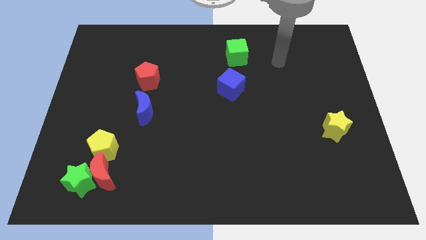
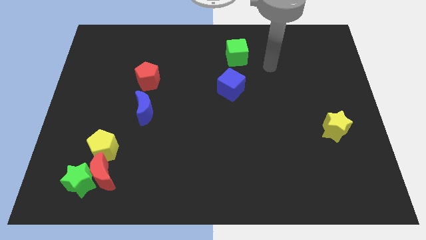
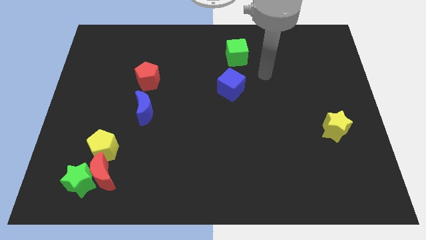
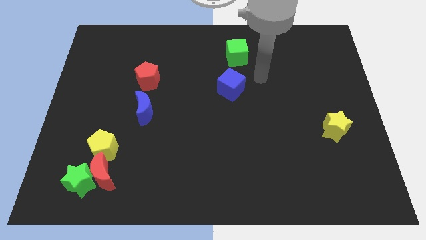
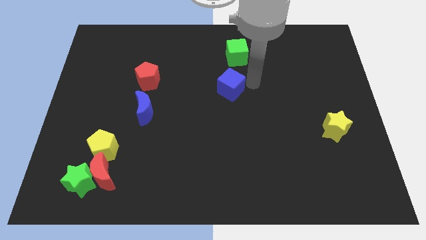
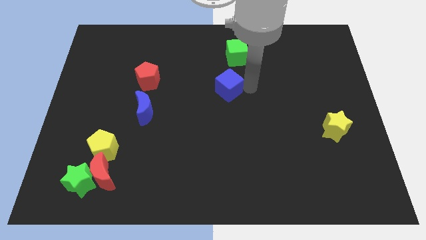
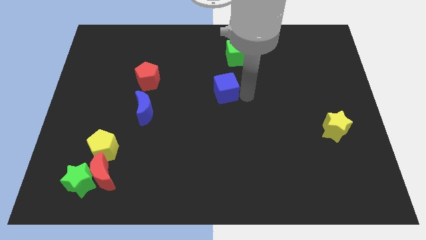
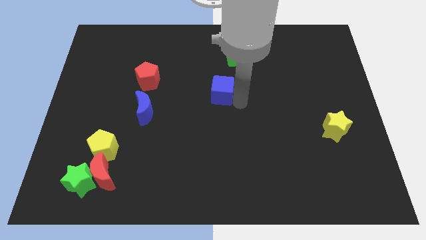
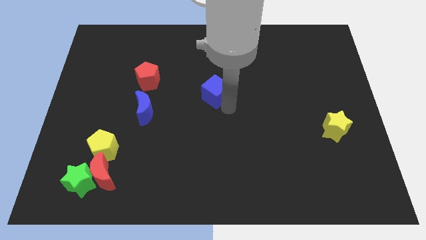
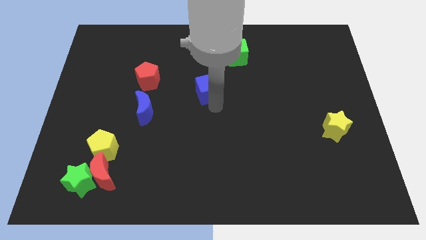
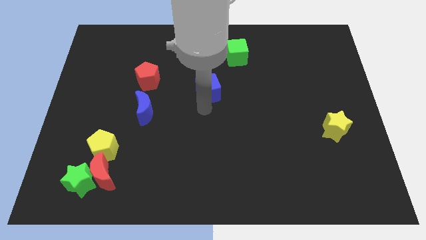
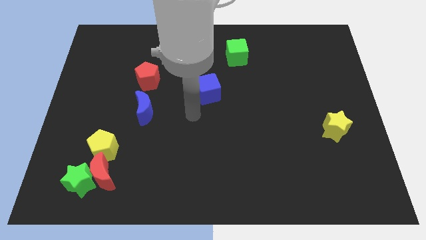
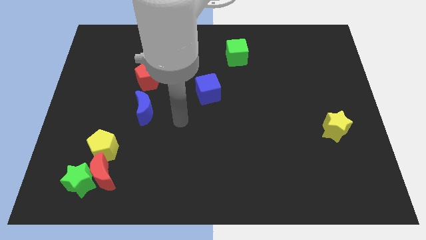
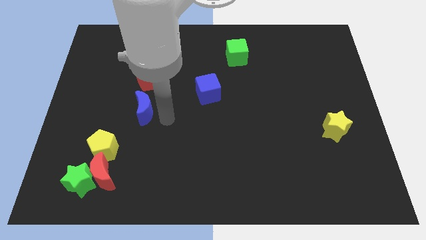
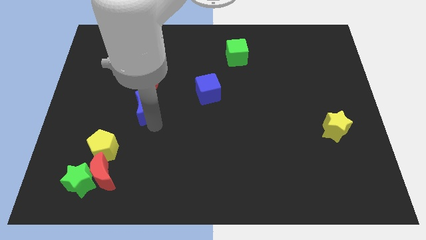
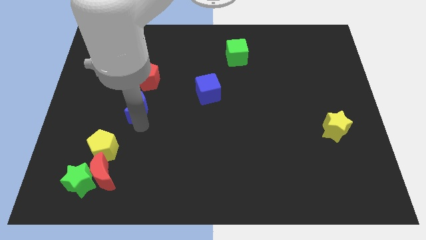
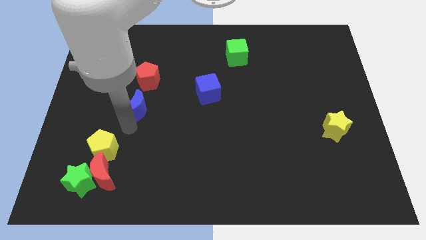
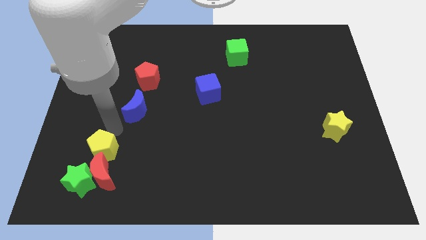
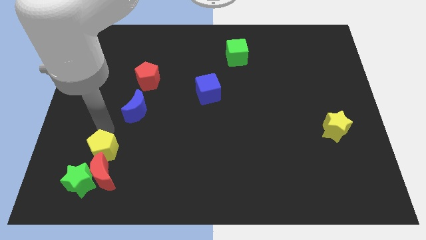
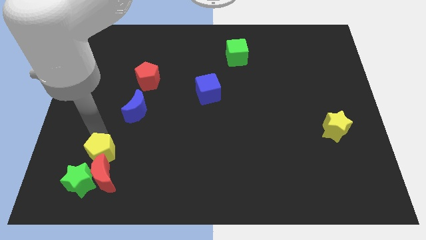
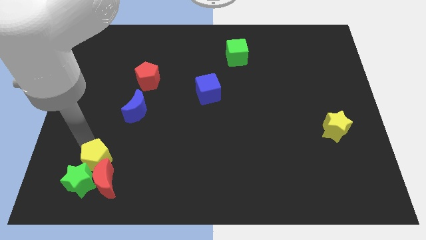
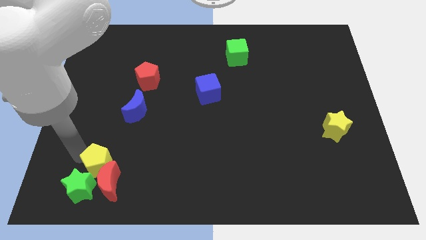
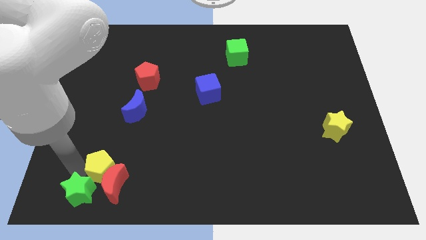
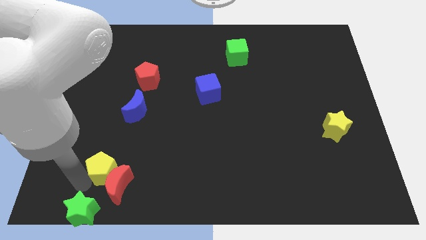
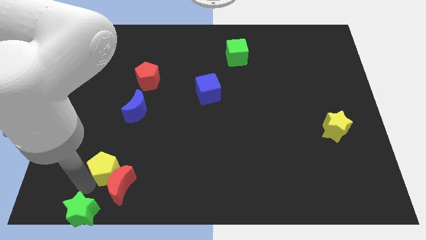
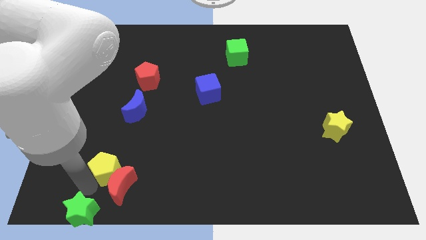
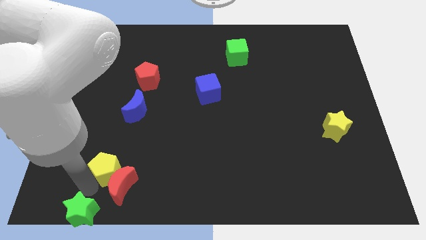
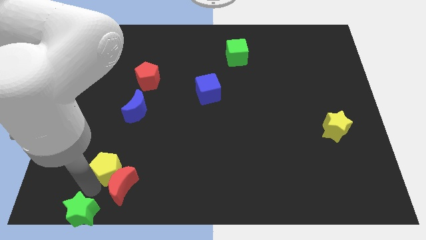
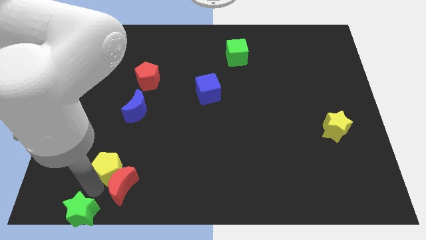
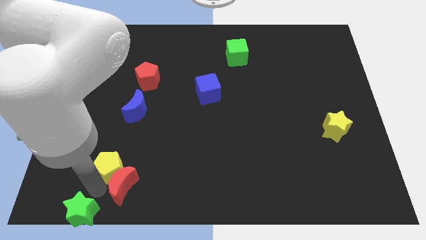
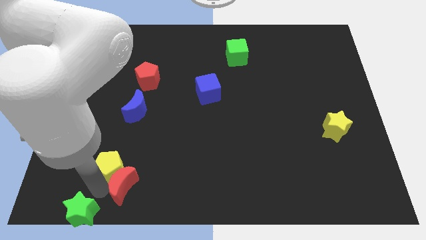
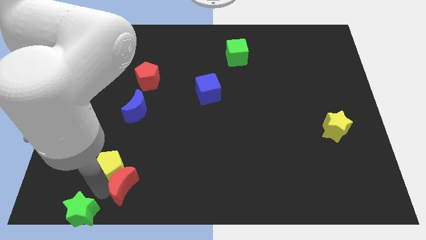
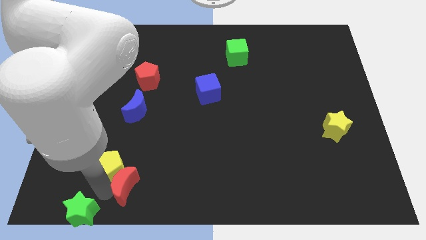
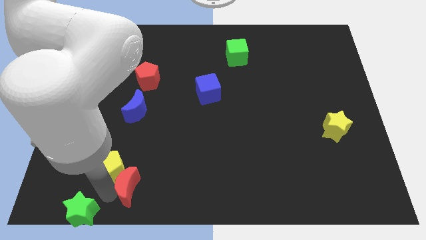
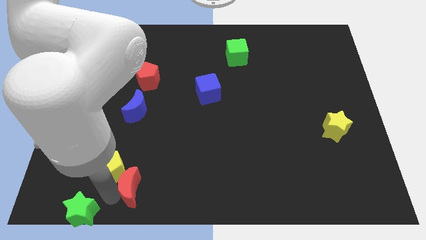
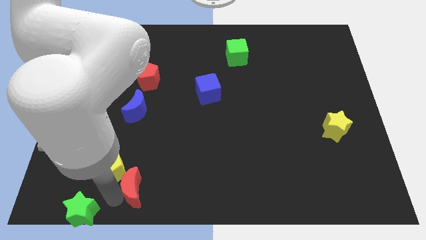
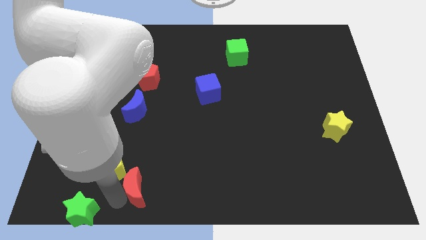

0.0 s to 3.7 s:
slightly push the red moon to the right

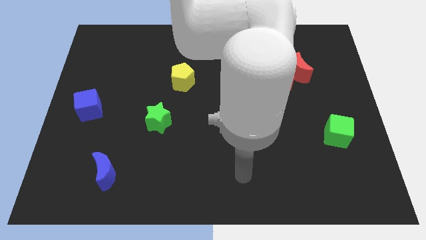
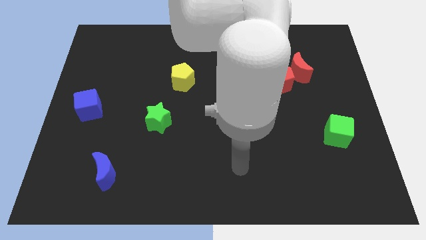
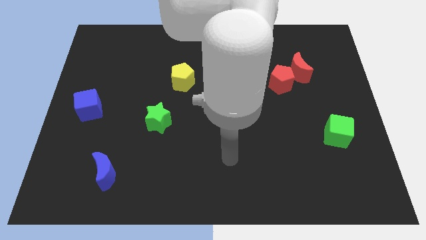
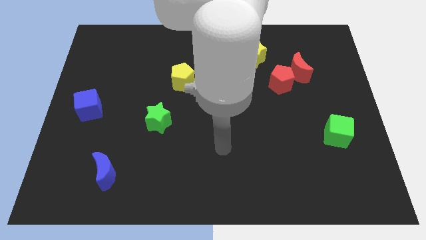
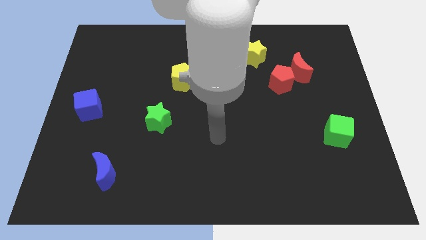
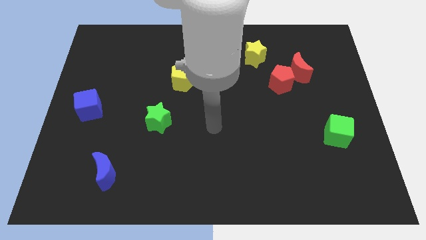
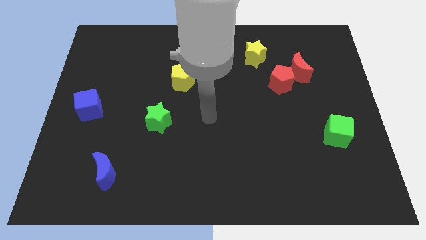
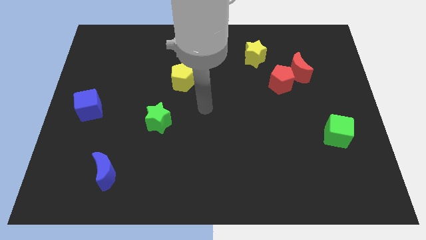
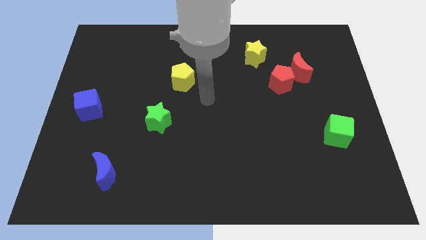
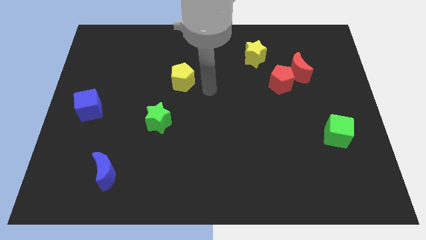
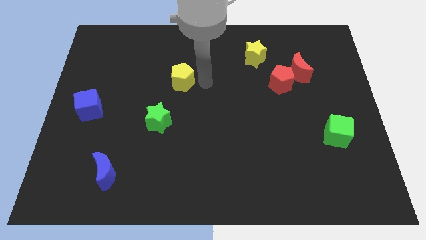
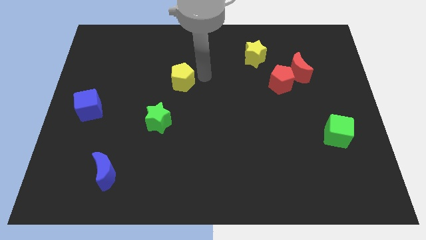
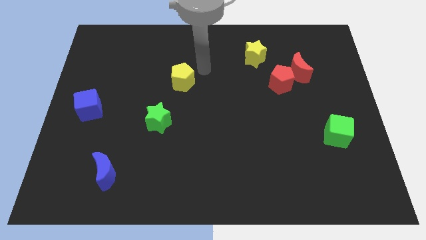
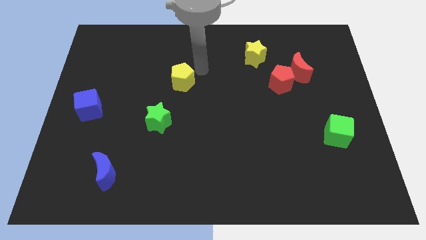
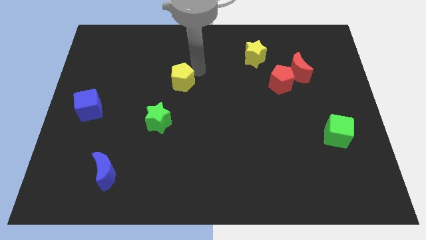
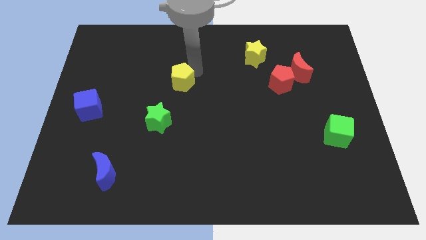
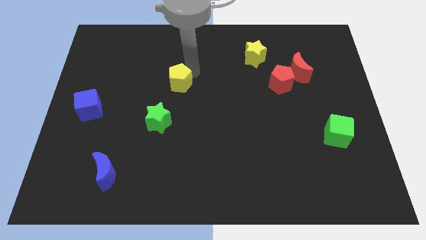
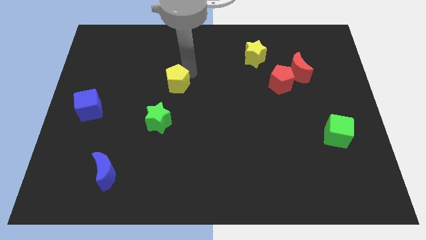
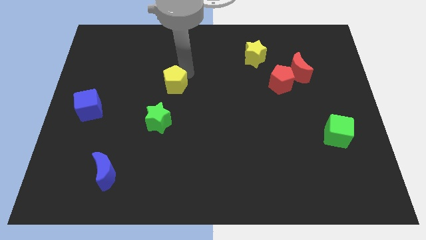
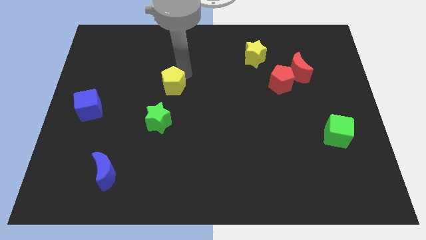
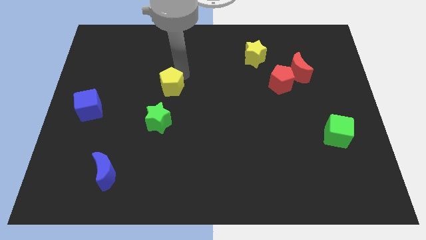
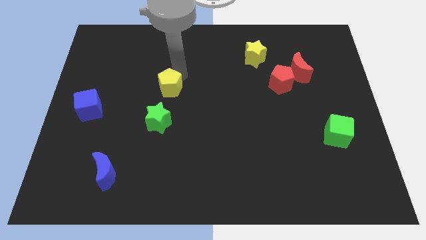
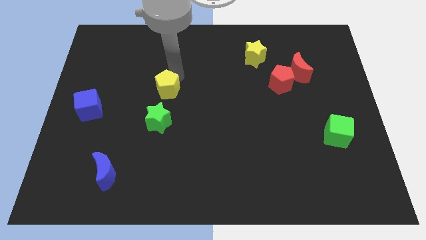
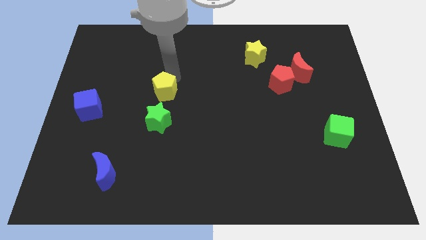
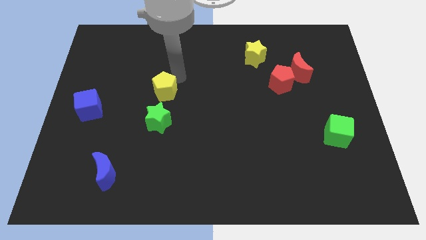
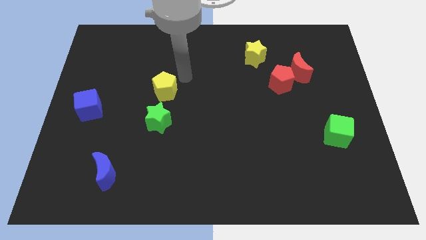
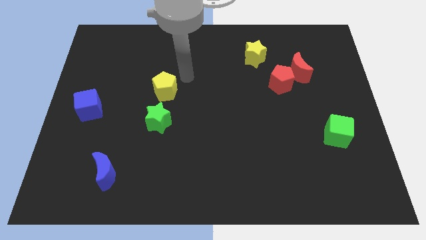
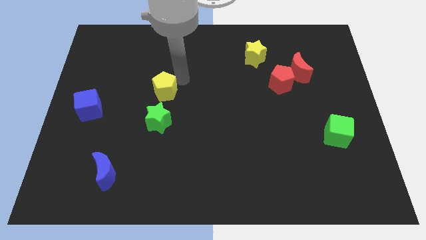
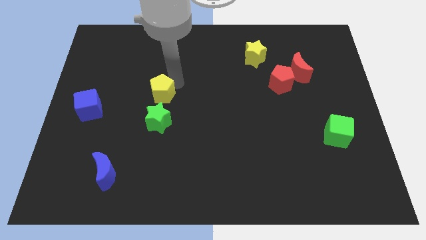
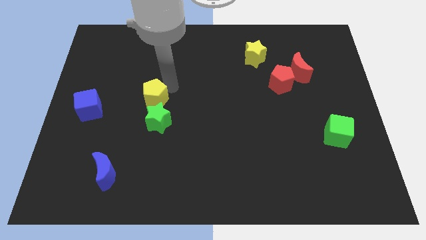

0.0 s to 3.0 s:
slightly push the yellow pentagon down and left

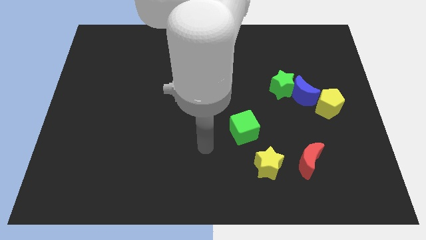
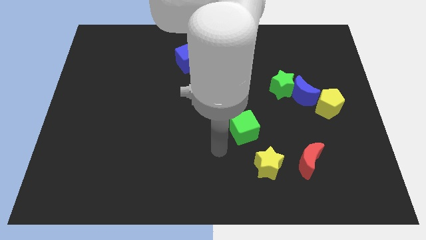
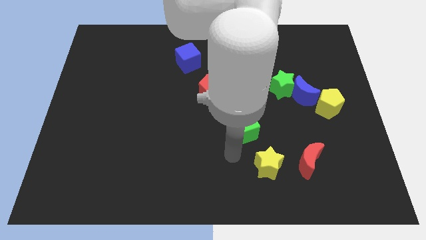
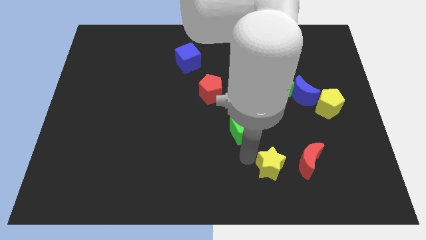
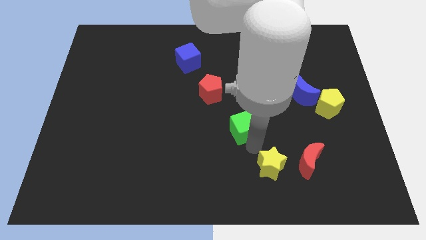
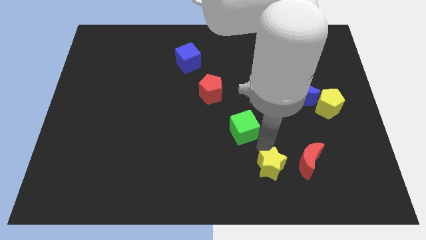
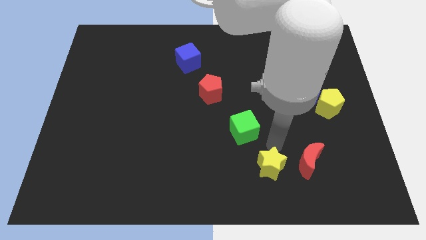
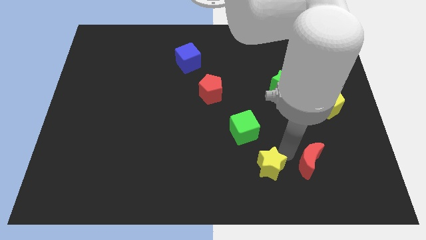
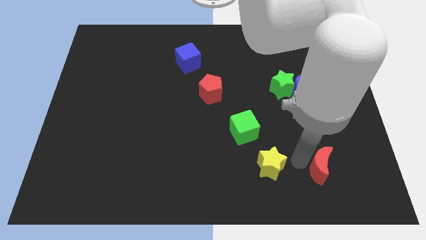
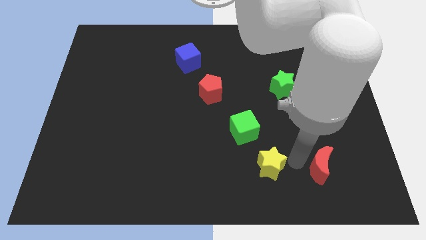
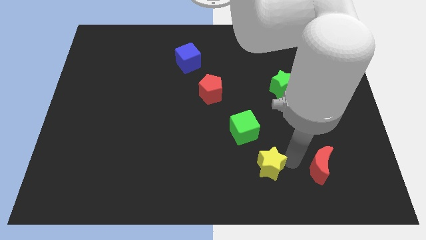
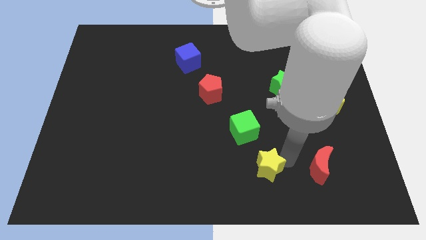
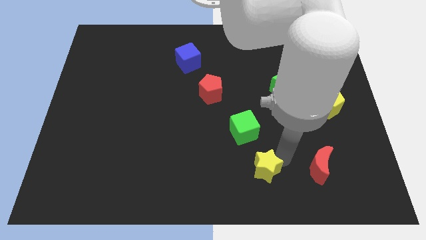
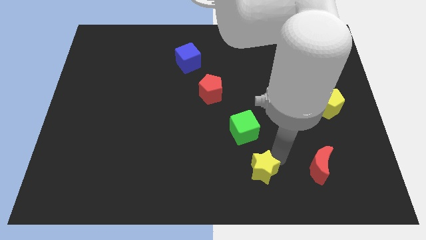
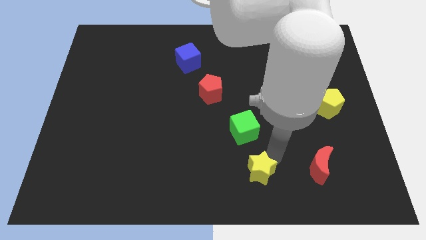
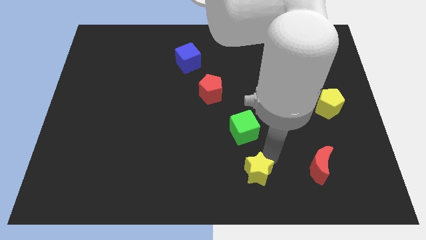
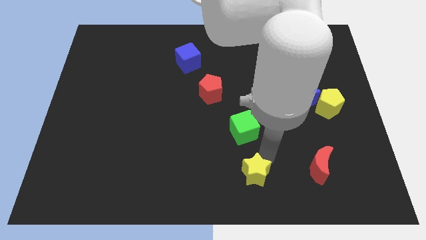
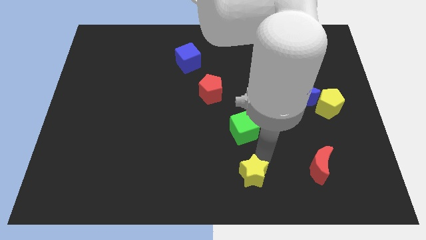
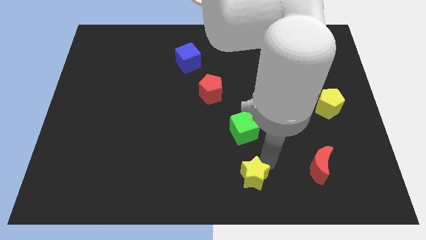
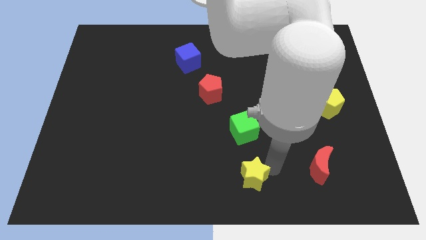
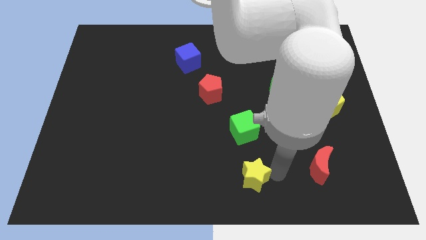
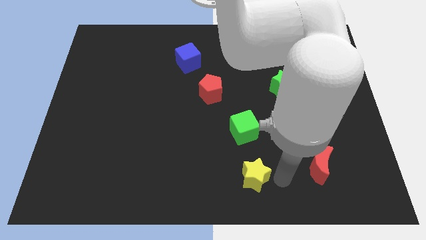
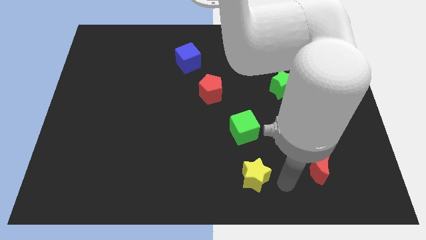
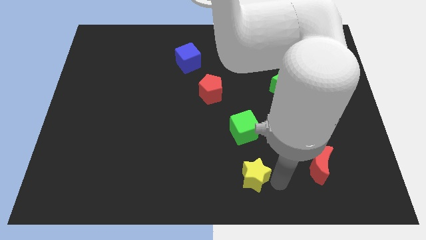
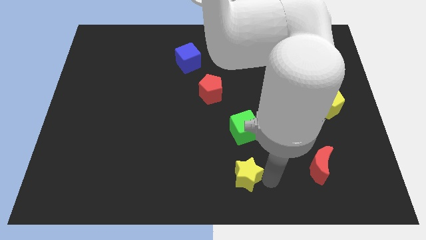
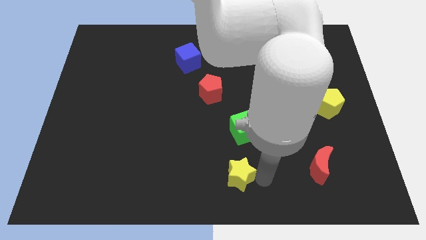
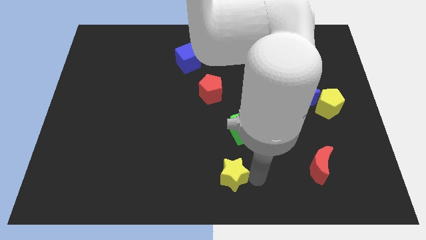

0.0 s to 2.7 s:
push the yellow star a little to the left
